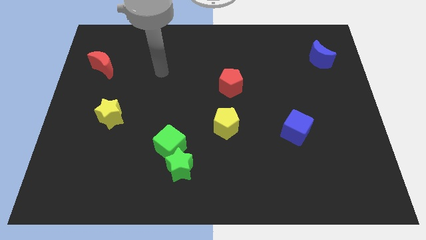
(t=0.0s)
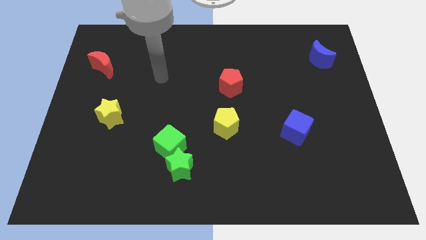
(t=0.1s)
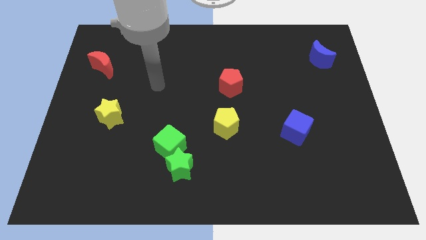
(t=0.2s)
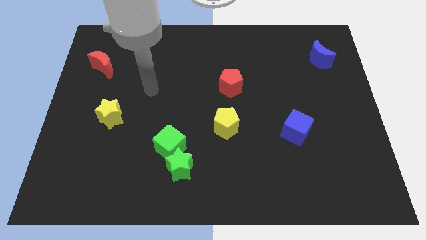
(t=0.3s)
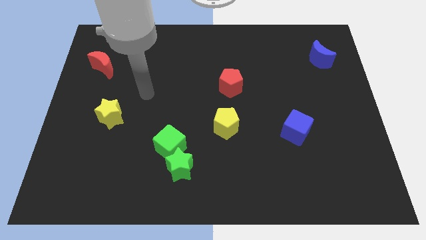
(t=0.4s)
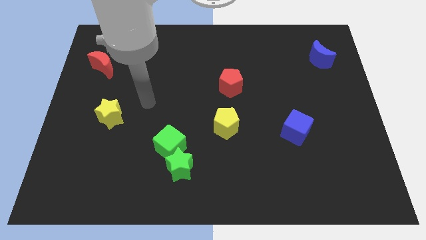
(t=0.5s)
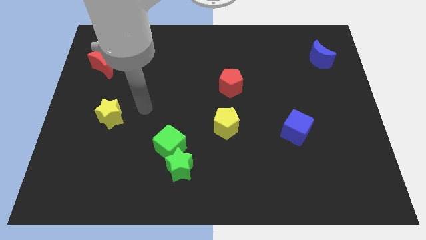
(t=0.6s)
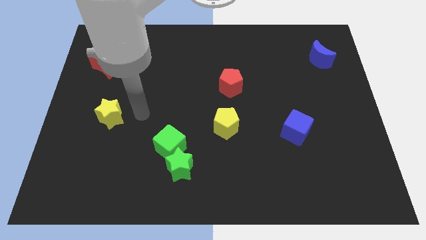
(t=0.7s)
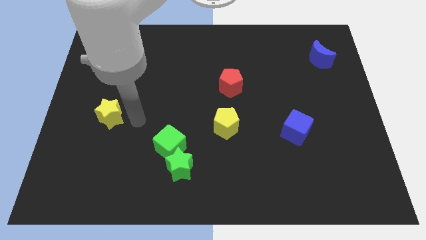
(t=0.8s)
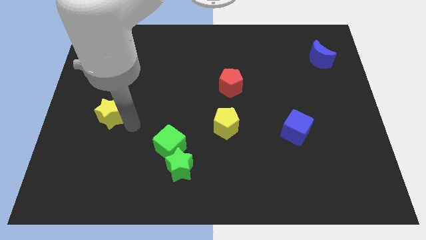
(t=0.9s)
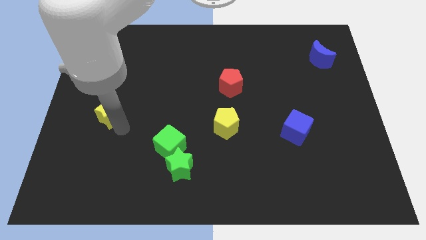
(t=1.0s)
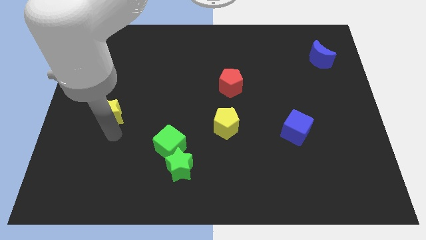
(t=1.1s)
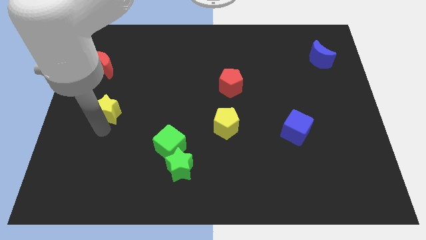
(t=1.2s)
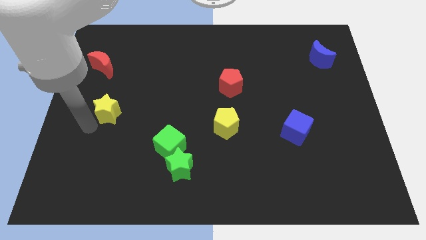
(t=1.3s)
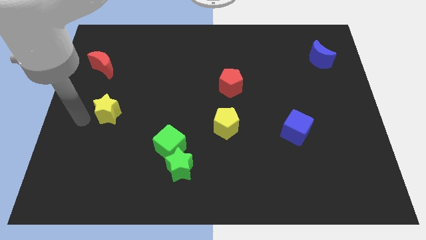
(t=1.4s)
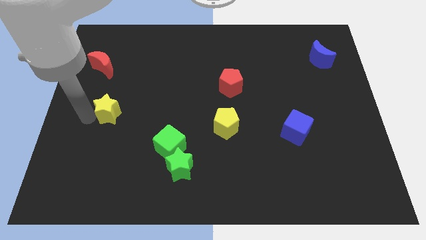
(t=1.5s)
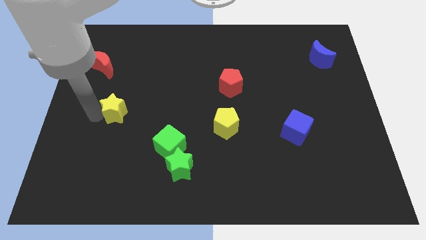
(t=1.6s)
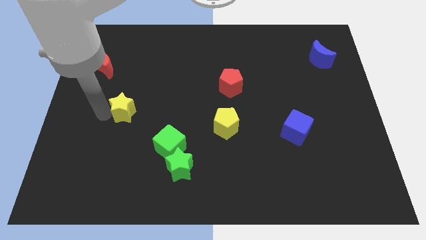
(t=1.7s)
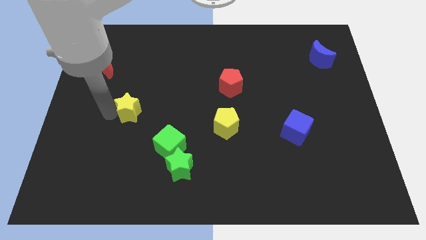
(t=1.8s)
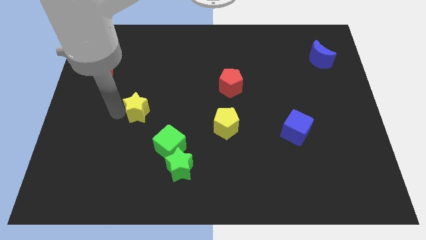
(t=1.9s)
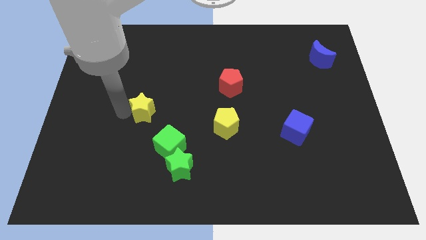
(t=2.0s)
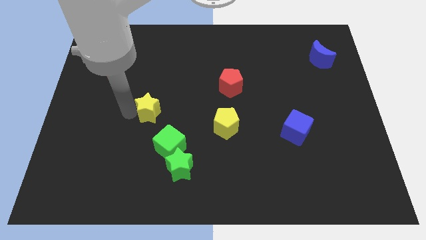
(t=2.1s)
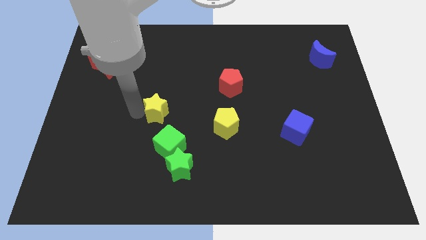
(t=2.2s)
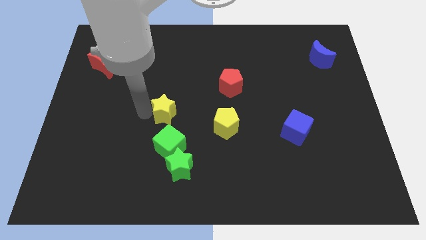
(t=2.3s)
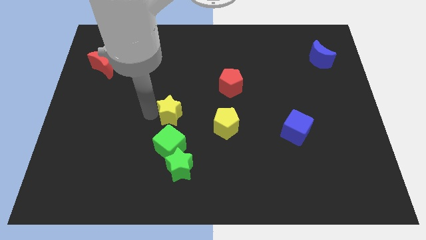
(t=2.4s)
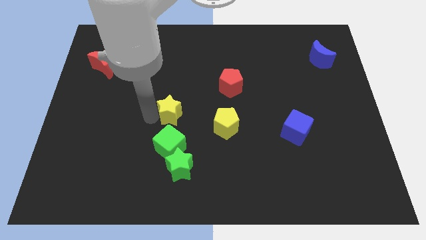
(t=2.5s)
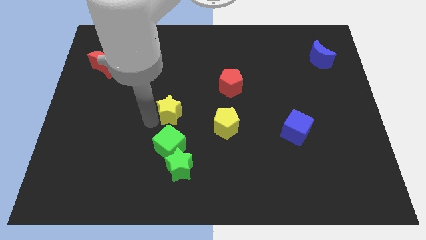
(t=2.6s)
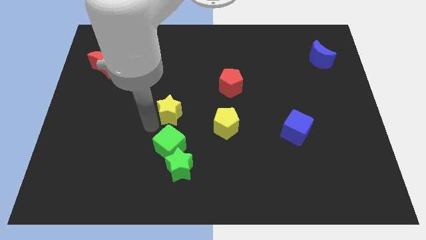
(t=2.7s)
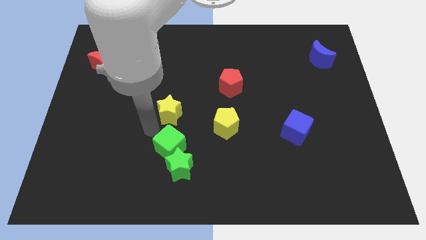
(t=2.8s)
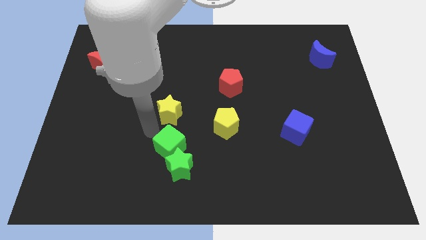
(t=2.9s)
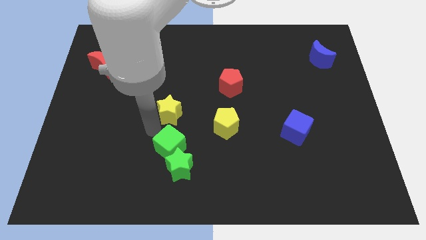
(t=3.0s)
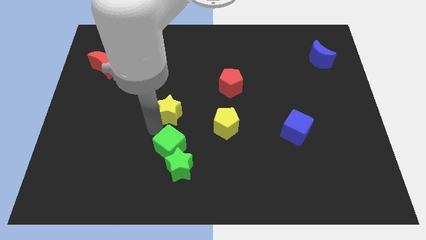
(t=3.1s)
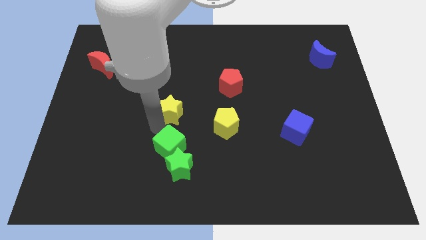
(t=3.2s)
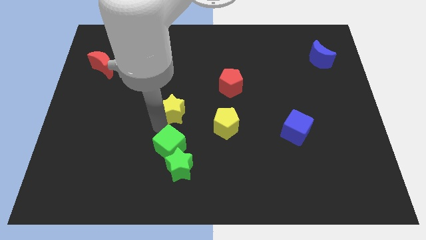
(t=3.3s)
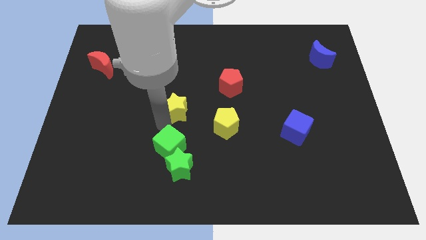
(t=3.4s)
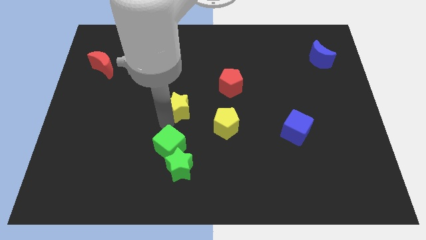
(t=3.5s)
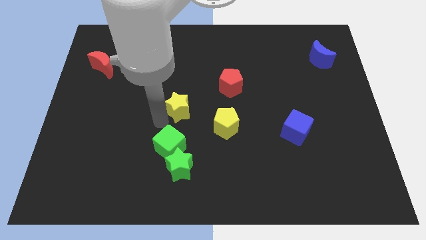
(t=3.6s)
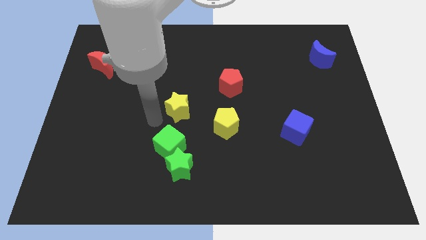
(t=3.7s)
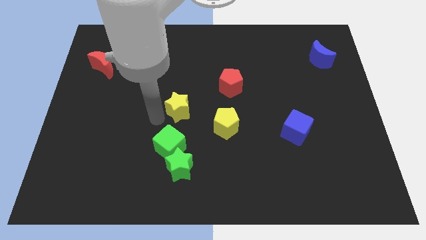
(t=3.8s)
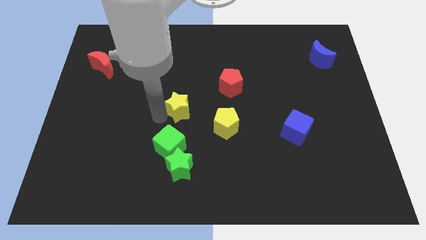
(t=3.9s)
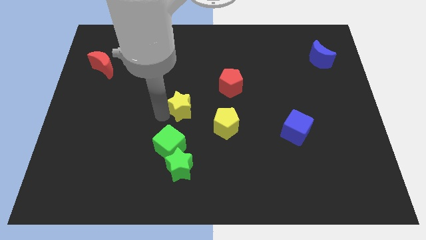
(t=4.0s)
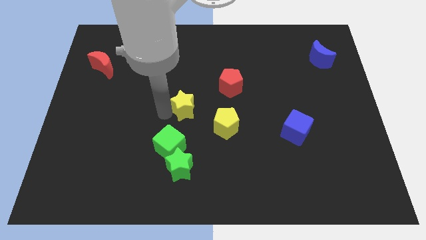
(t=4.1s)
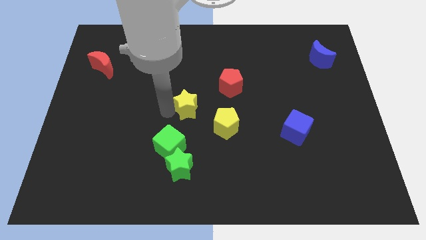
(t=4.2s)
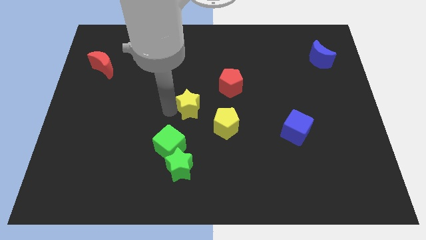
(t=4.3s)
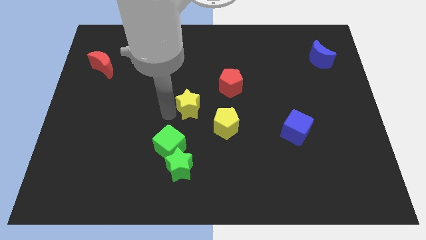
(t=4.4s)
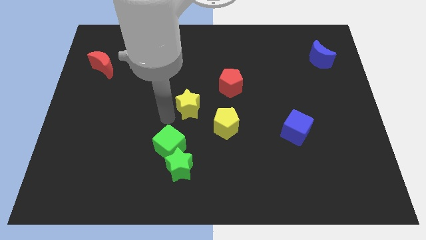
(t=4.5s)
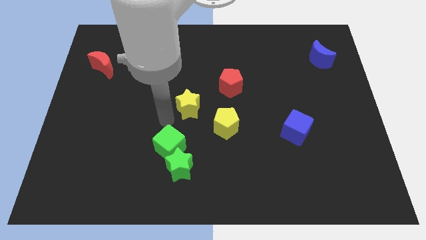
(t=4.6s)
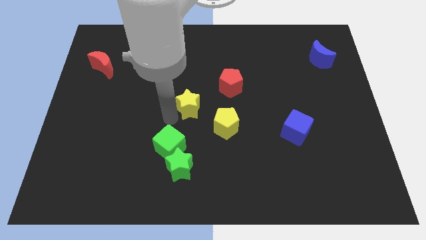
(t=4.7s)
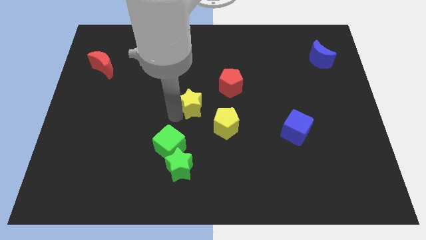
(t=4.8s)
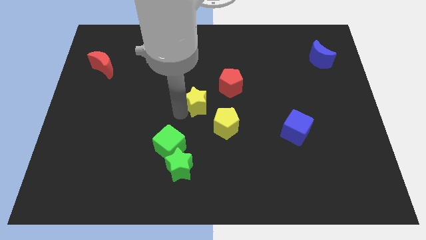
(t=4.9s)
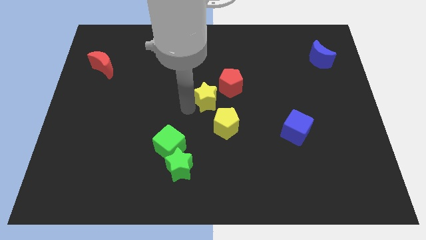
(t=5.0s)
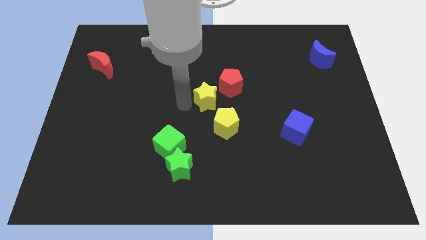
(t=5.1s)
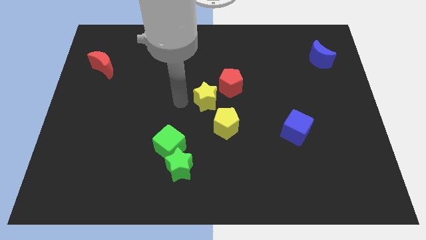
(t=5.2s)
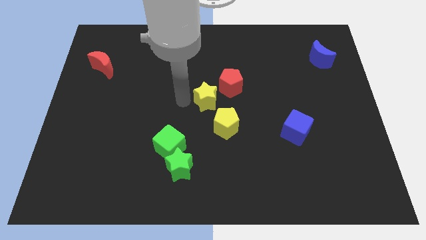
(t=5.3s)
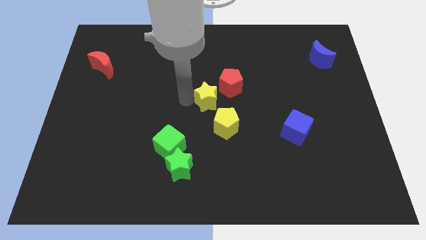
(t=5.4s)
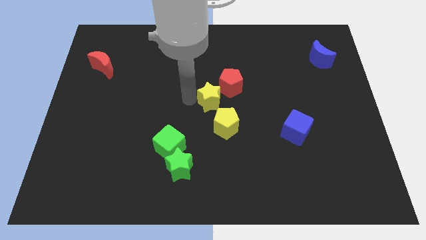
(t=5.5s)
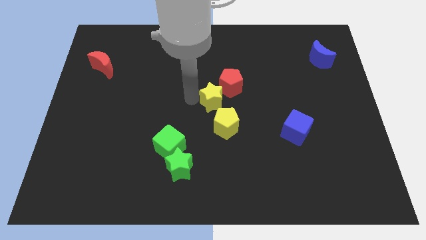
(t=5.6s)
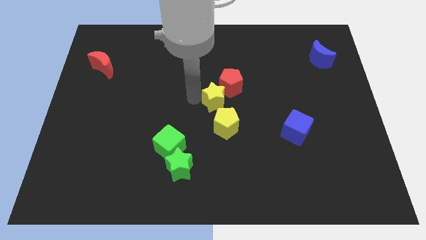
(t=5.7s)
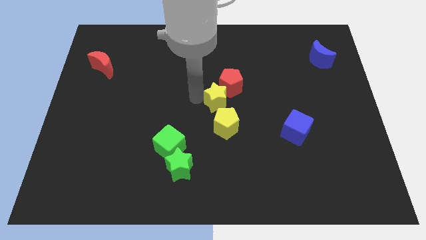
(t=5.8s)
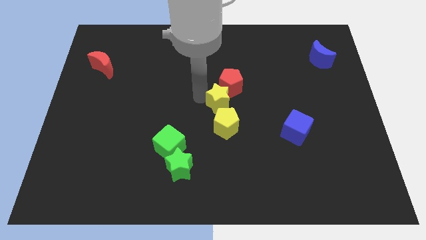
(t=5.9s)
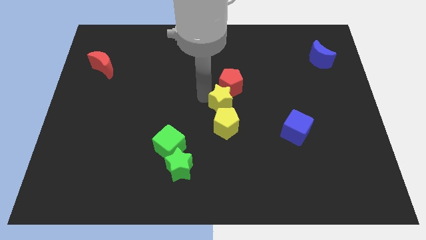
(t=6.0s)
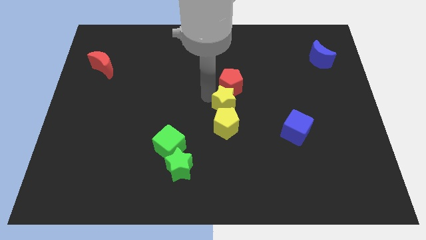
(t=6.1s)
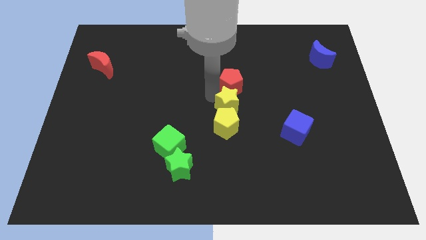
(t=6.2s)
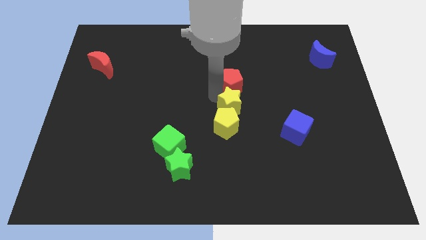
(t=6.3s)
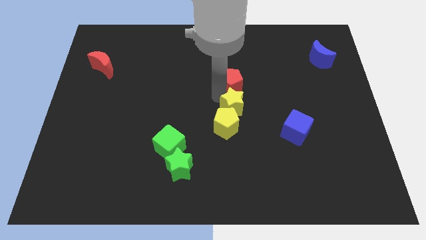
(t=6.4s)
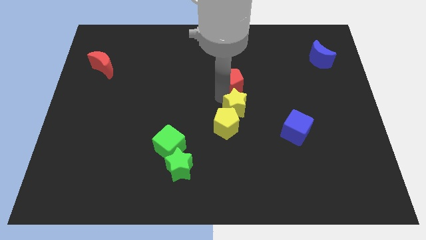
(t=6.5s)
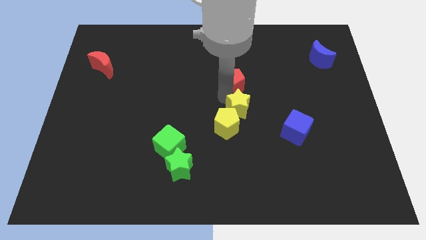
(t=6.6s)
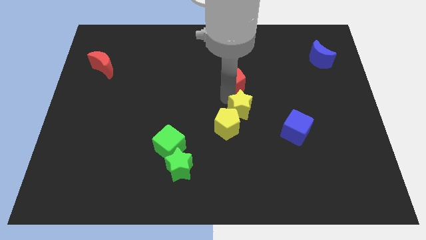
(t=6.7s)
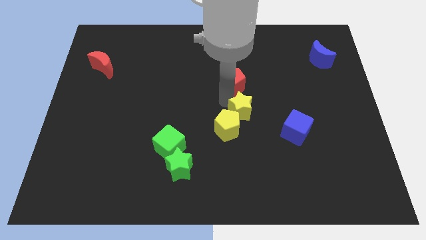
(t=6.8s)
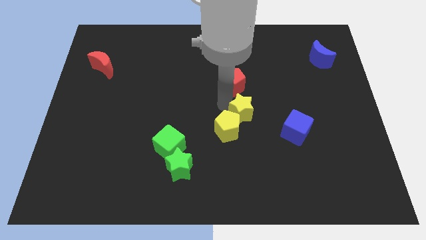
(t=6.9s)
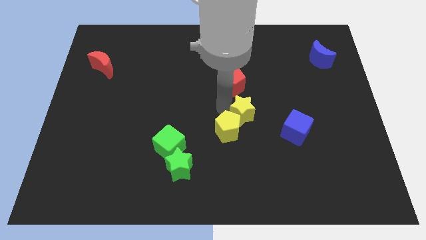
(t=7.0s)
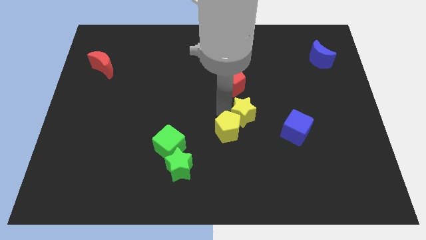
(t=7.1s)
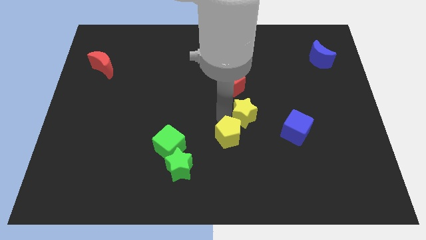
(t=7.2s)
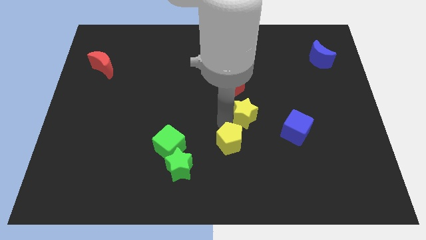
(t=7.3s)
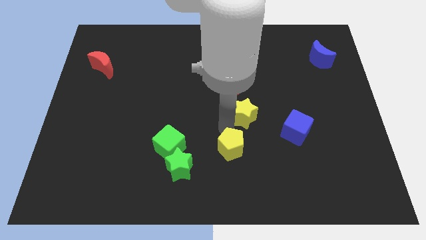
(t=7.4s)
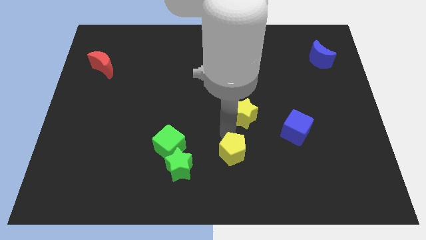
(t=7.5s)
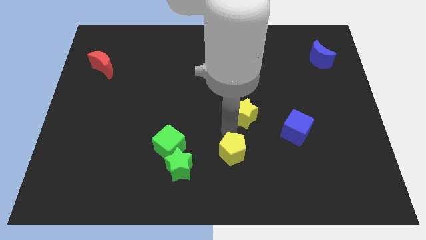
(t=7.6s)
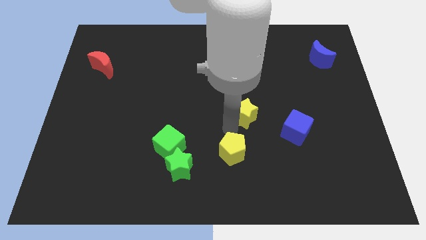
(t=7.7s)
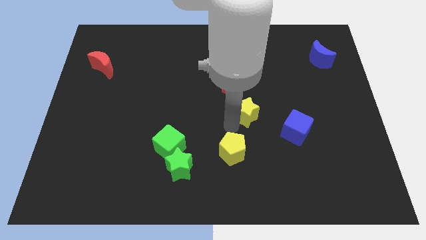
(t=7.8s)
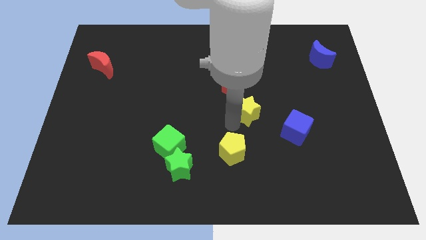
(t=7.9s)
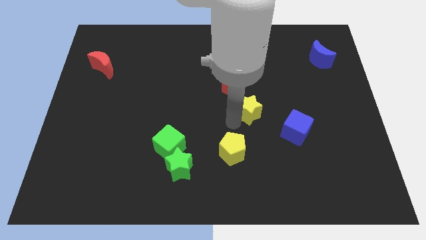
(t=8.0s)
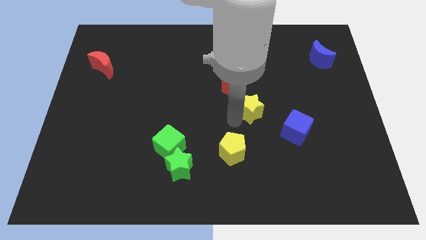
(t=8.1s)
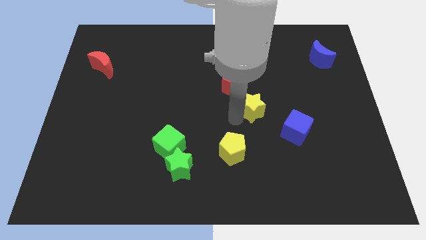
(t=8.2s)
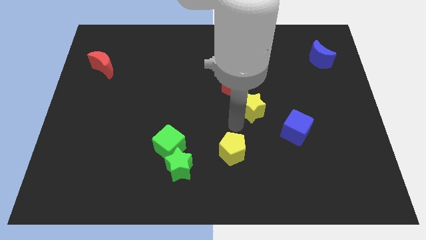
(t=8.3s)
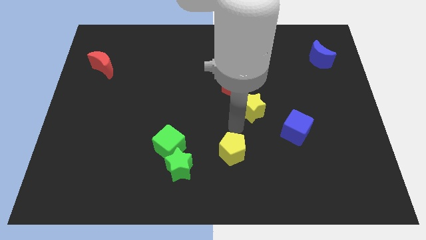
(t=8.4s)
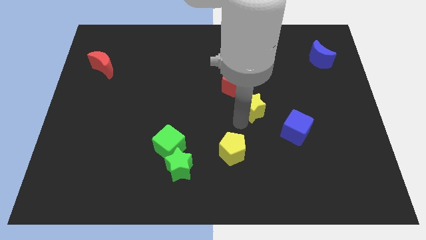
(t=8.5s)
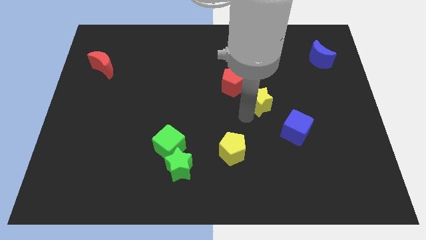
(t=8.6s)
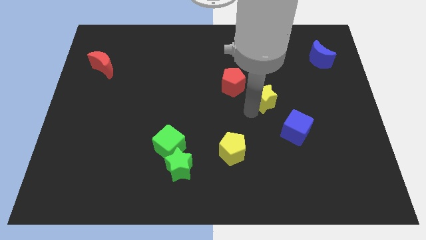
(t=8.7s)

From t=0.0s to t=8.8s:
move the yellow star to the right side of the red pentagon
